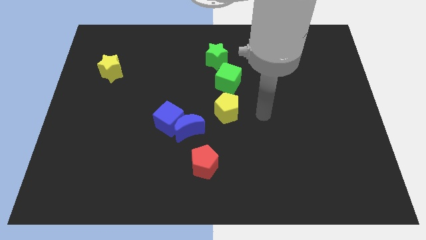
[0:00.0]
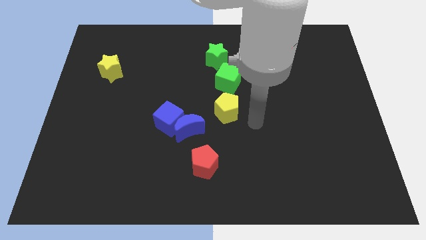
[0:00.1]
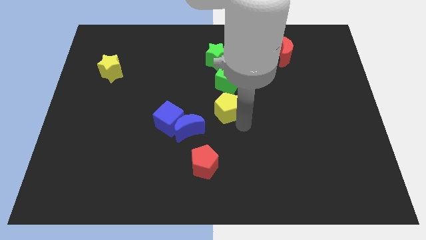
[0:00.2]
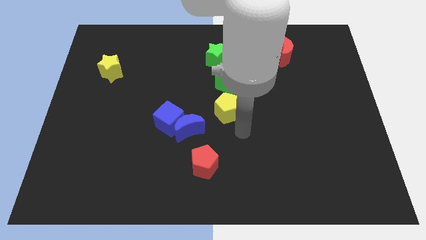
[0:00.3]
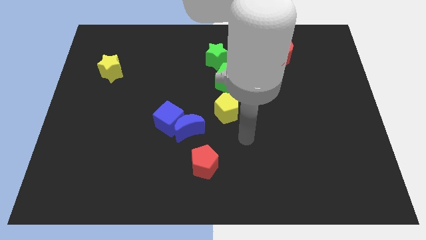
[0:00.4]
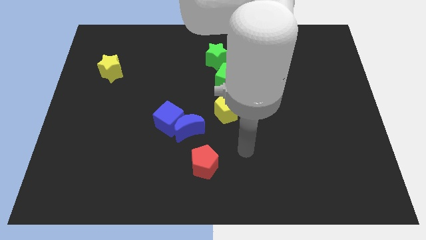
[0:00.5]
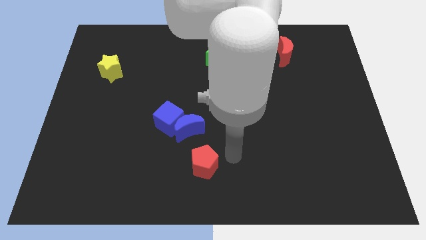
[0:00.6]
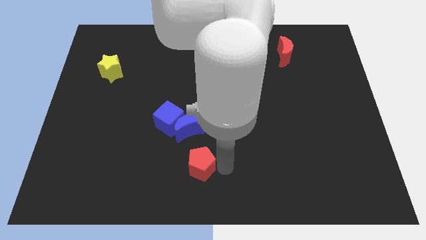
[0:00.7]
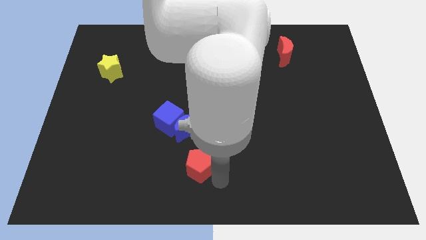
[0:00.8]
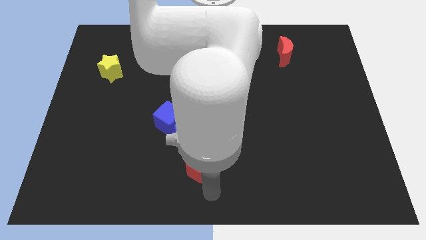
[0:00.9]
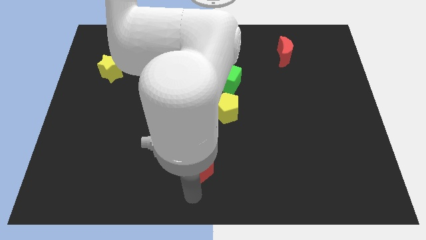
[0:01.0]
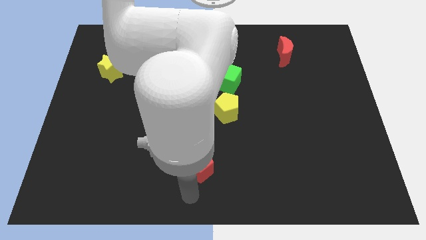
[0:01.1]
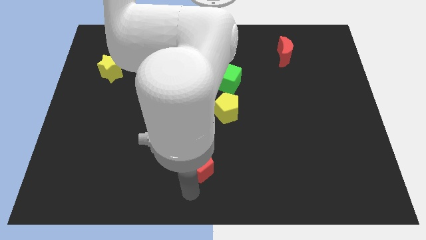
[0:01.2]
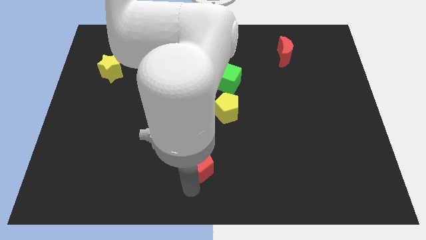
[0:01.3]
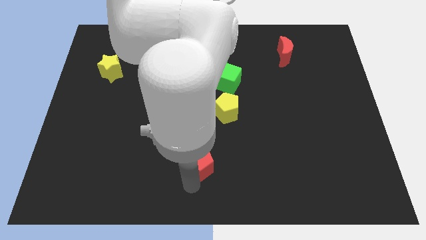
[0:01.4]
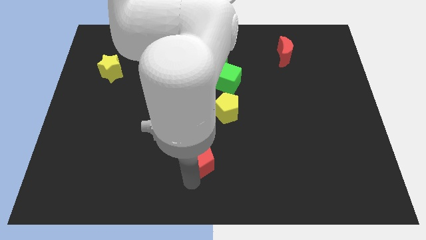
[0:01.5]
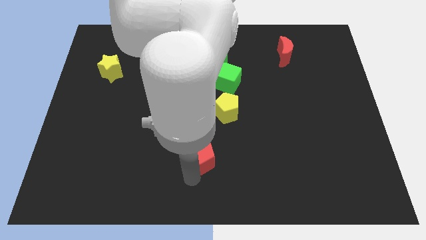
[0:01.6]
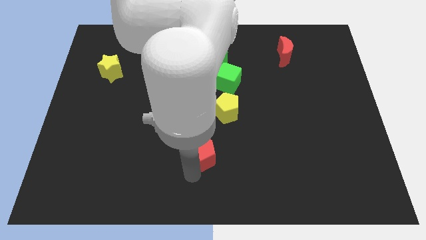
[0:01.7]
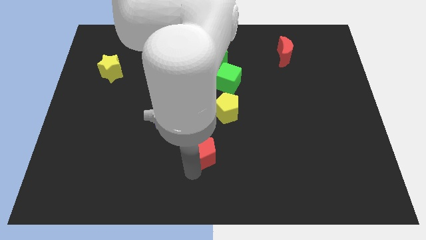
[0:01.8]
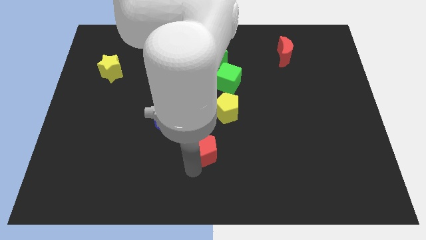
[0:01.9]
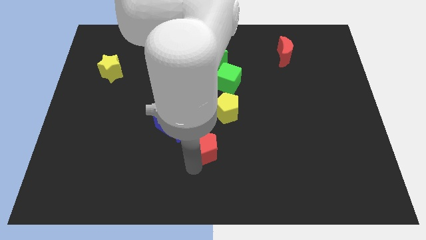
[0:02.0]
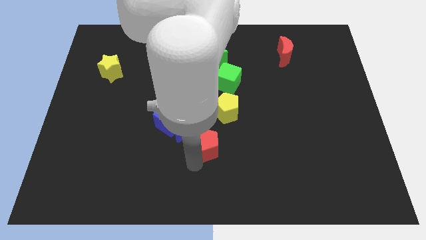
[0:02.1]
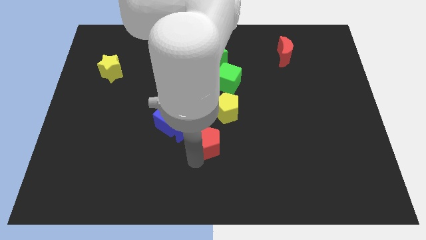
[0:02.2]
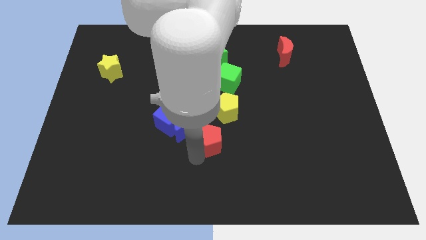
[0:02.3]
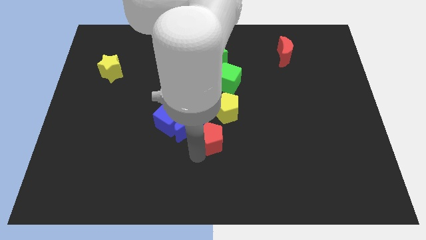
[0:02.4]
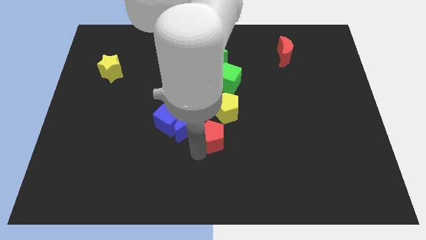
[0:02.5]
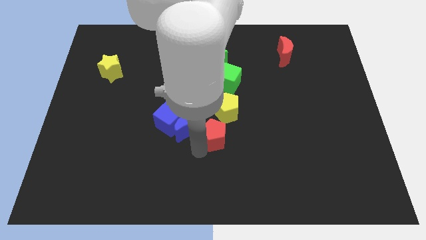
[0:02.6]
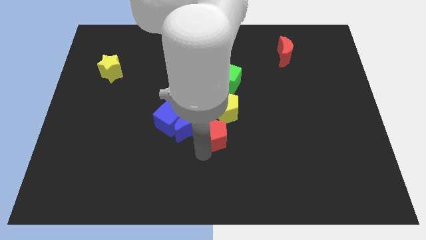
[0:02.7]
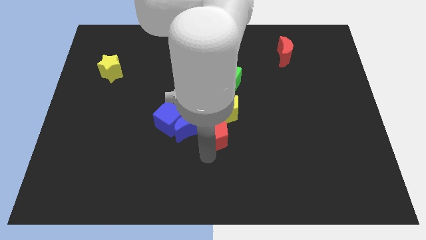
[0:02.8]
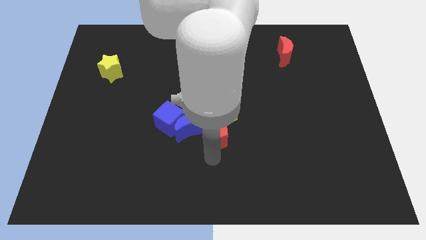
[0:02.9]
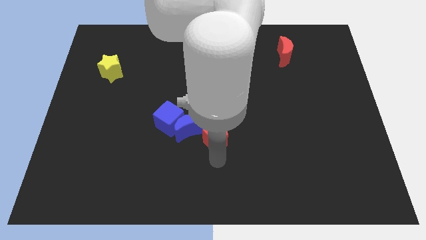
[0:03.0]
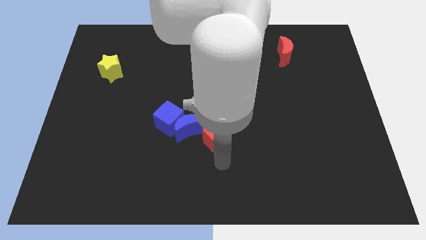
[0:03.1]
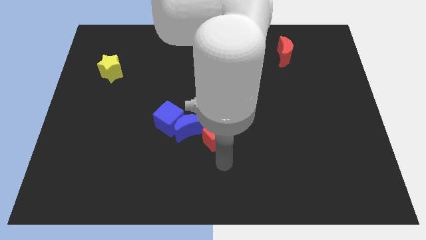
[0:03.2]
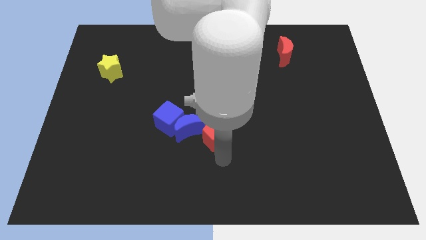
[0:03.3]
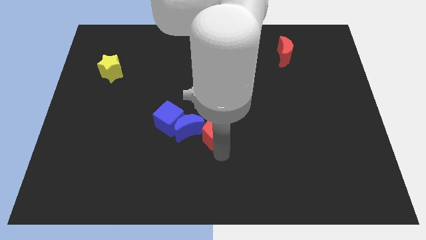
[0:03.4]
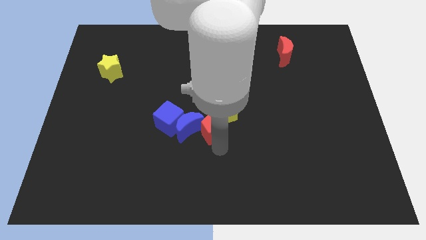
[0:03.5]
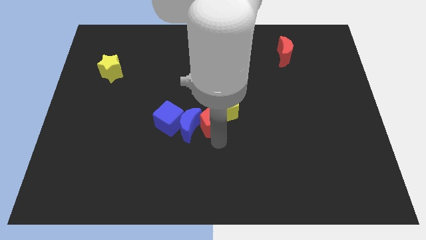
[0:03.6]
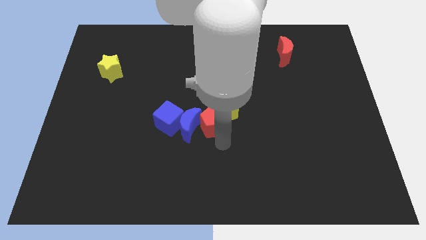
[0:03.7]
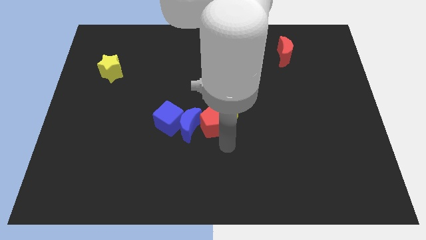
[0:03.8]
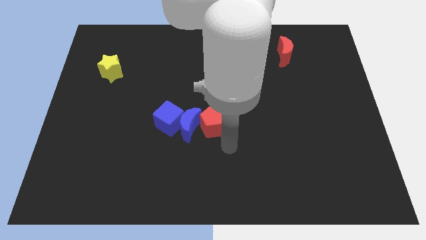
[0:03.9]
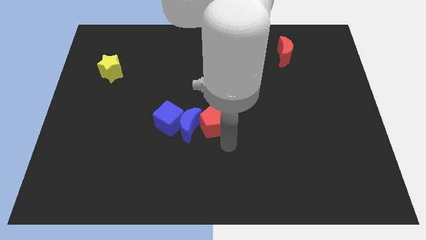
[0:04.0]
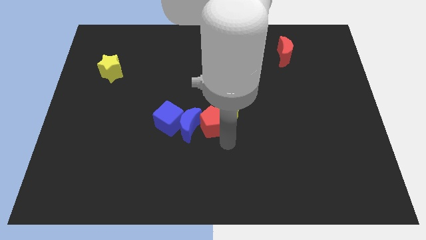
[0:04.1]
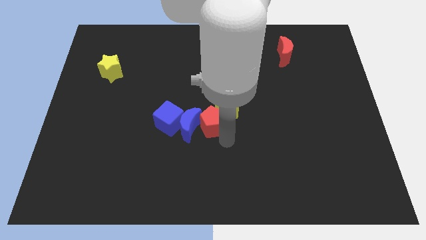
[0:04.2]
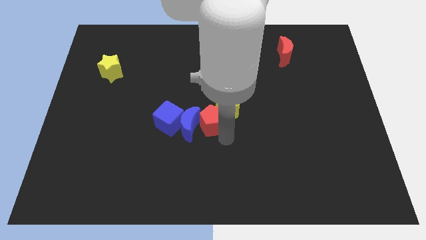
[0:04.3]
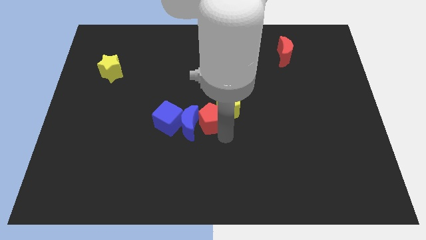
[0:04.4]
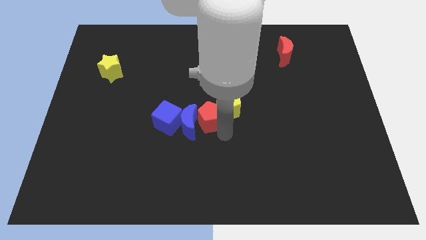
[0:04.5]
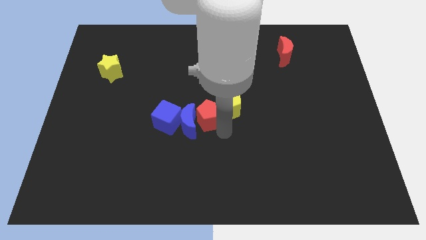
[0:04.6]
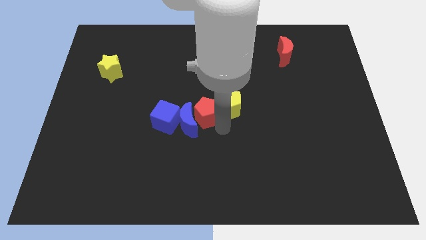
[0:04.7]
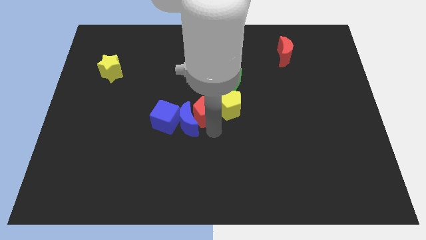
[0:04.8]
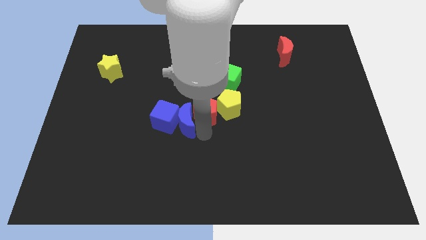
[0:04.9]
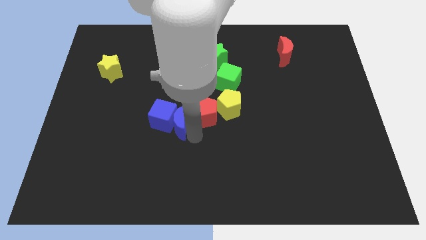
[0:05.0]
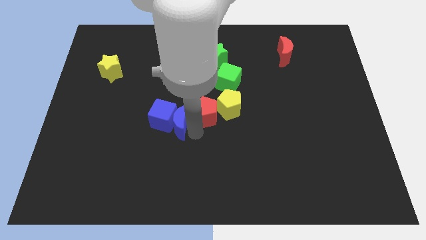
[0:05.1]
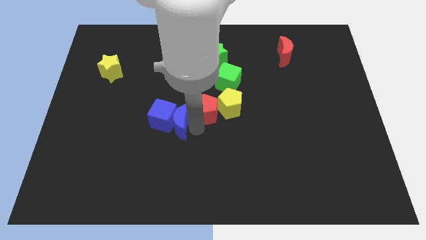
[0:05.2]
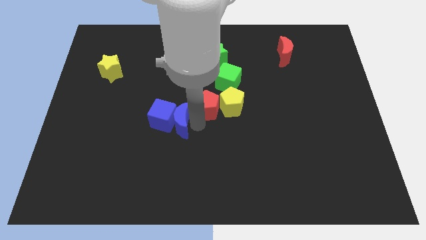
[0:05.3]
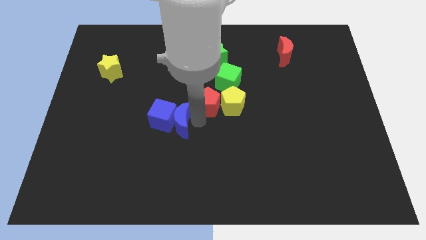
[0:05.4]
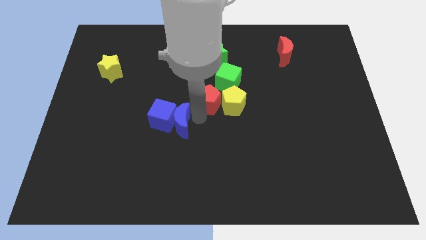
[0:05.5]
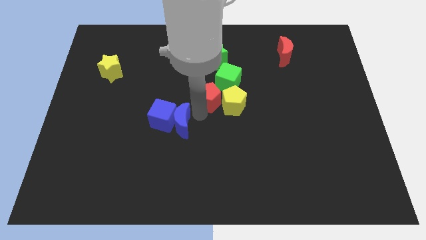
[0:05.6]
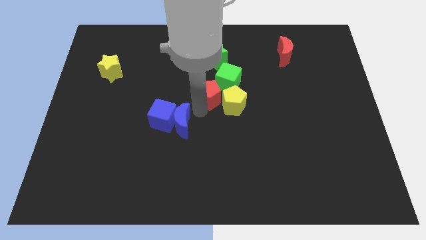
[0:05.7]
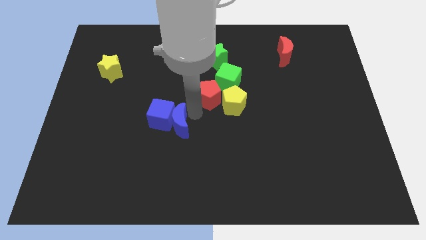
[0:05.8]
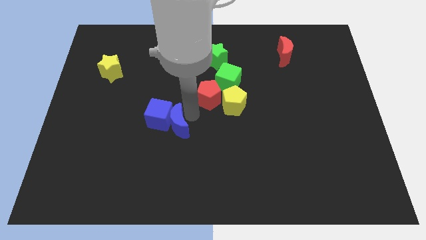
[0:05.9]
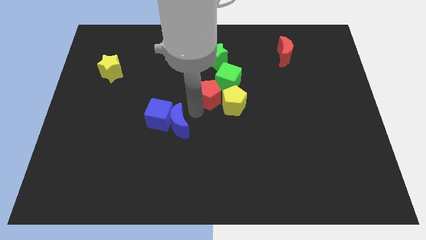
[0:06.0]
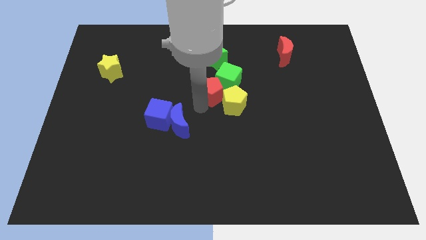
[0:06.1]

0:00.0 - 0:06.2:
put the red pentagon close to the green cube
